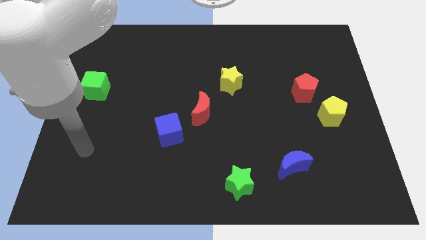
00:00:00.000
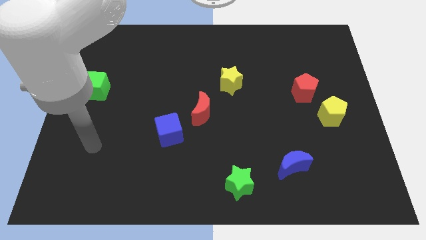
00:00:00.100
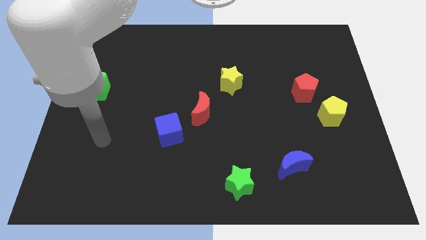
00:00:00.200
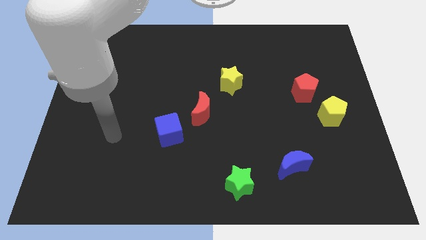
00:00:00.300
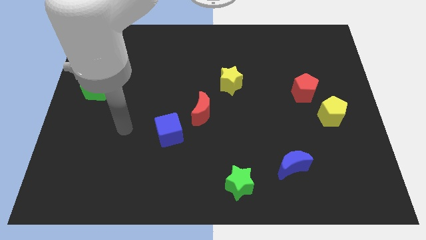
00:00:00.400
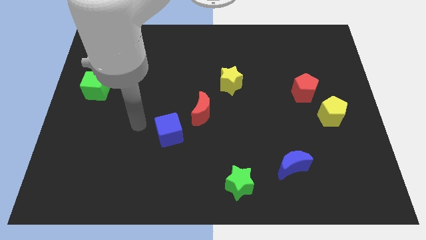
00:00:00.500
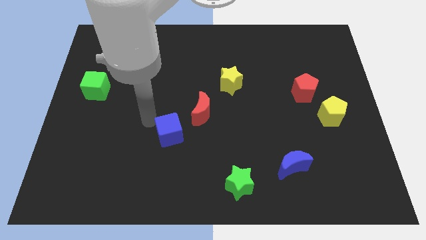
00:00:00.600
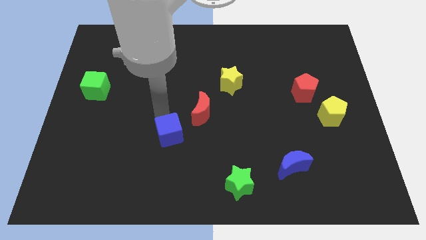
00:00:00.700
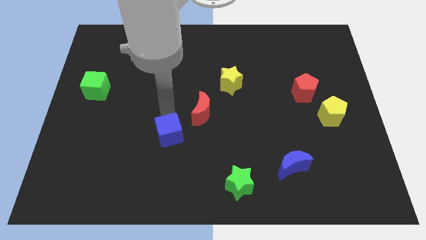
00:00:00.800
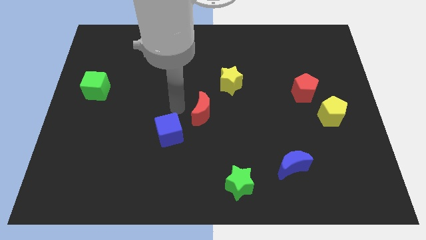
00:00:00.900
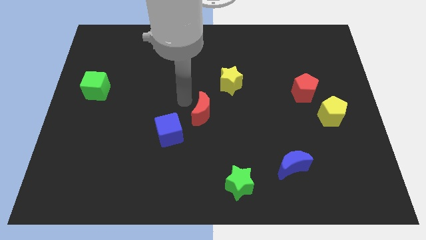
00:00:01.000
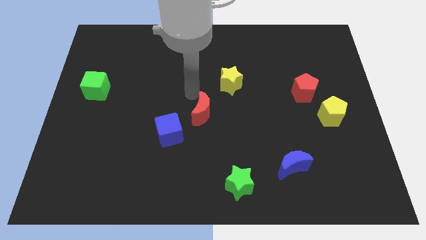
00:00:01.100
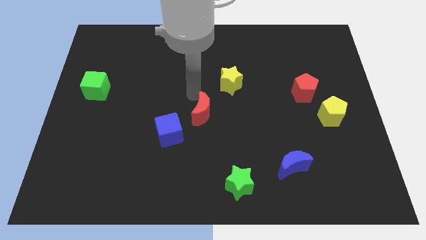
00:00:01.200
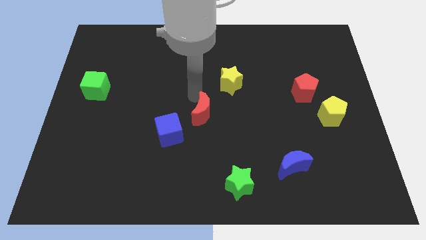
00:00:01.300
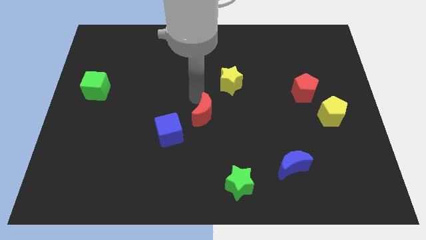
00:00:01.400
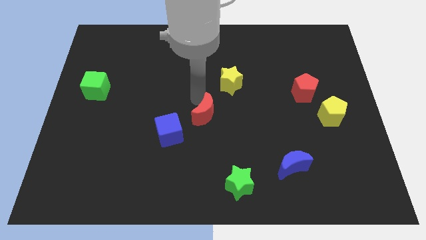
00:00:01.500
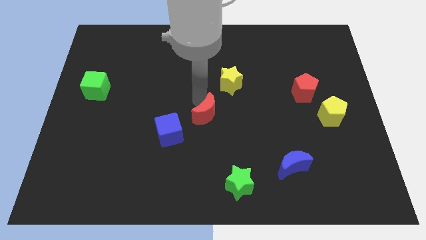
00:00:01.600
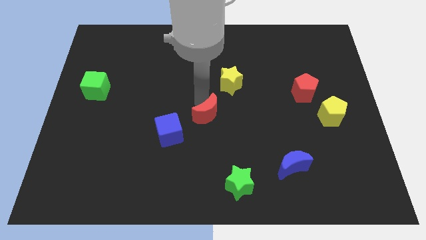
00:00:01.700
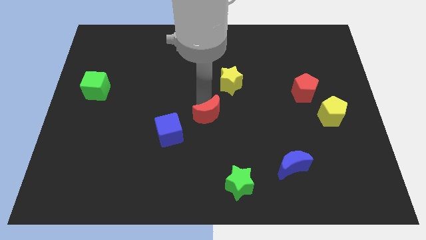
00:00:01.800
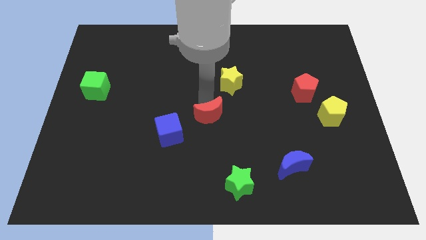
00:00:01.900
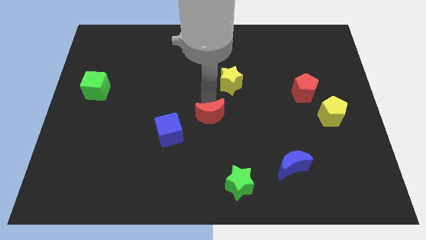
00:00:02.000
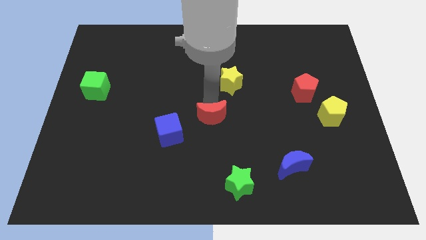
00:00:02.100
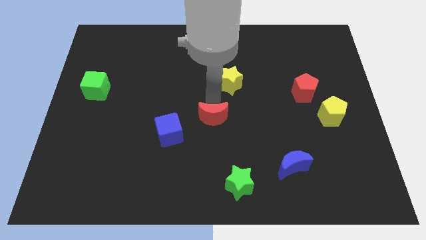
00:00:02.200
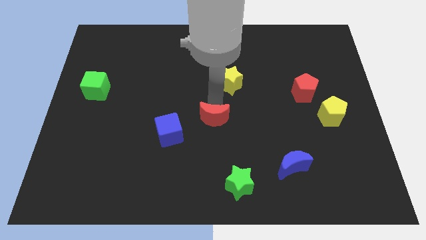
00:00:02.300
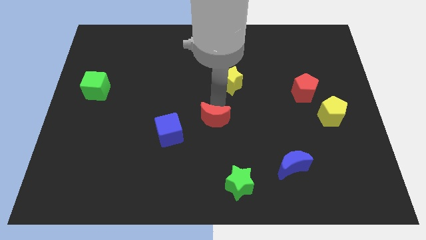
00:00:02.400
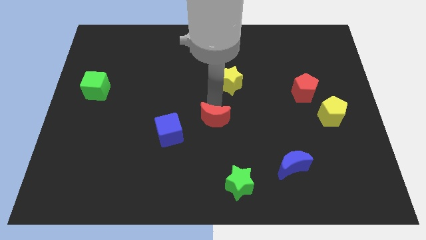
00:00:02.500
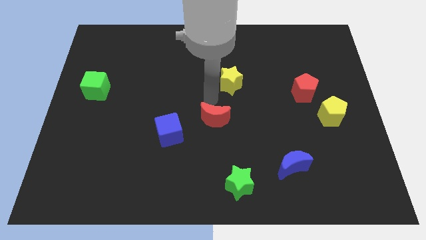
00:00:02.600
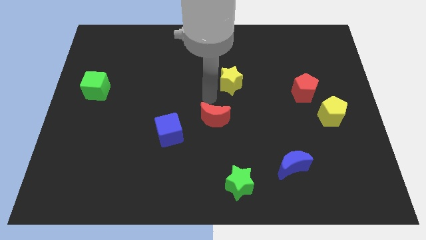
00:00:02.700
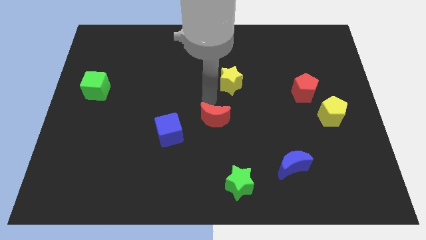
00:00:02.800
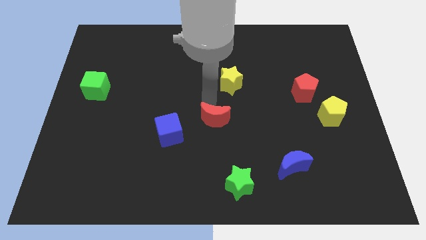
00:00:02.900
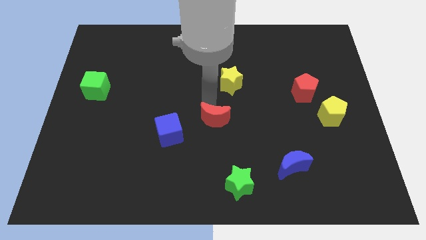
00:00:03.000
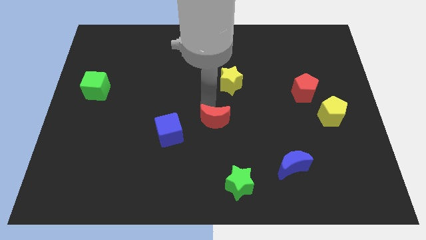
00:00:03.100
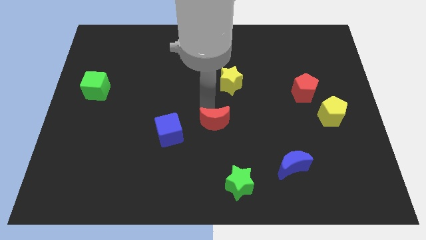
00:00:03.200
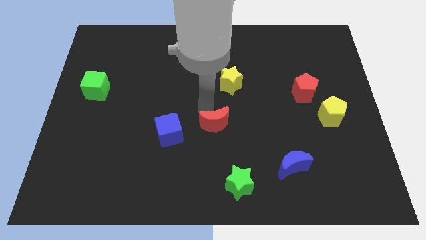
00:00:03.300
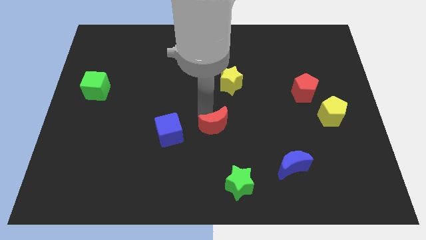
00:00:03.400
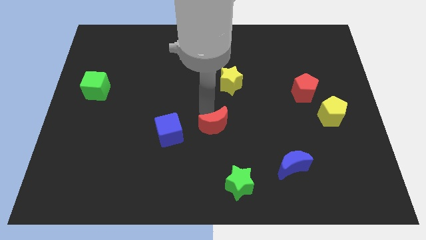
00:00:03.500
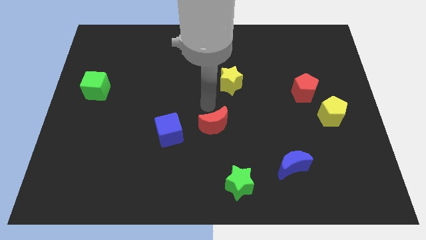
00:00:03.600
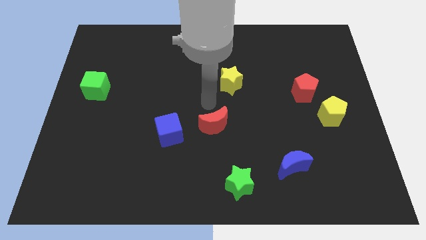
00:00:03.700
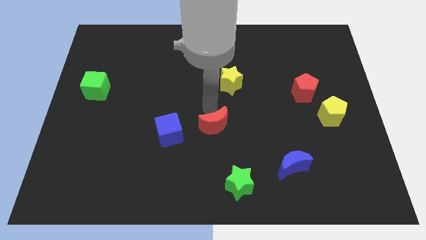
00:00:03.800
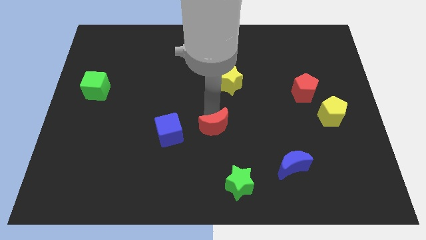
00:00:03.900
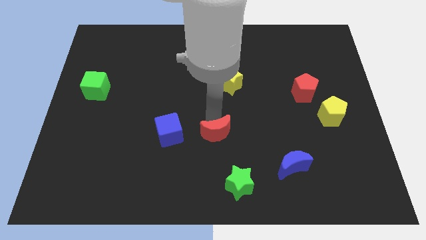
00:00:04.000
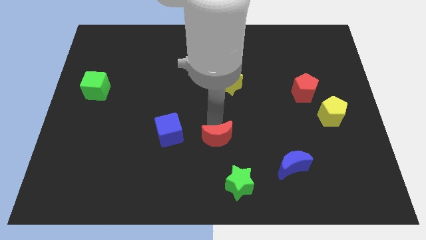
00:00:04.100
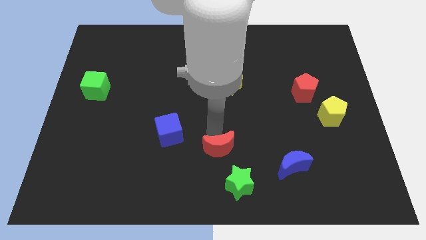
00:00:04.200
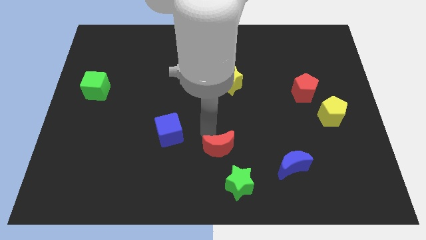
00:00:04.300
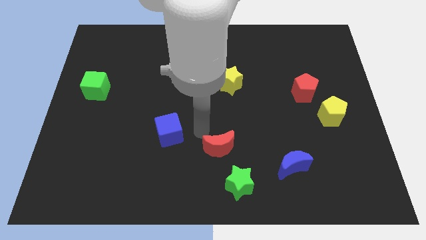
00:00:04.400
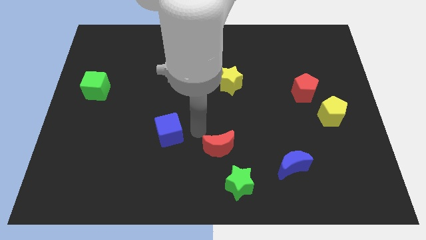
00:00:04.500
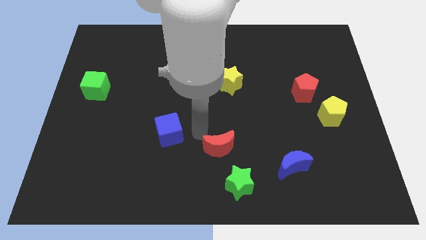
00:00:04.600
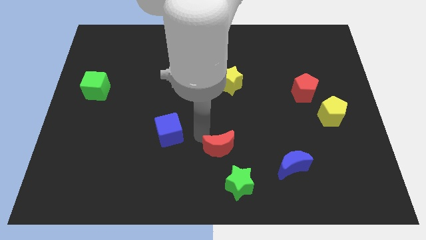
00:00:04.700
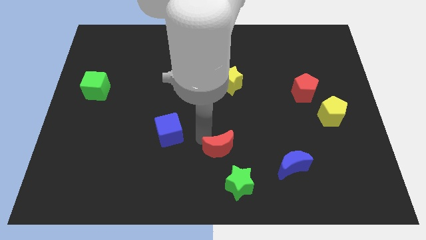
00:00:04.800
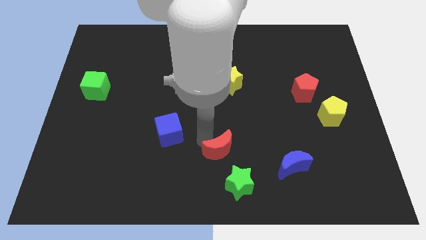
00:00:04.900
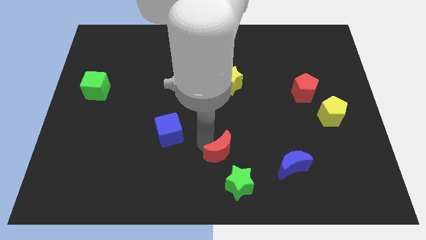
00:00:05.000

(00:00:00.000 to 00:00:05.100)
slide the red moon to the left of the blue moon

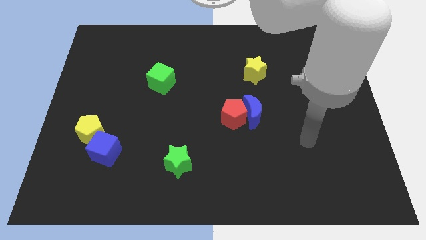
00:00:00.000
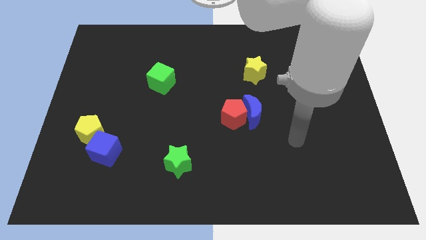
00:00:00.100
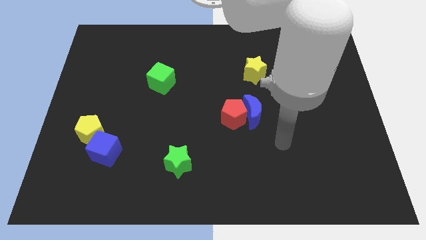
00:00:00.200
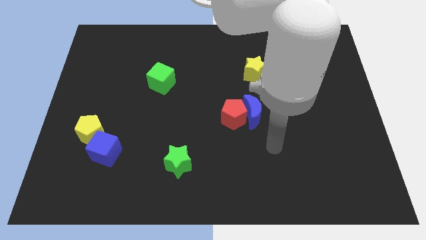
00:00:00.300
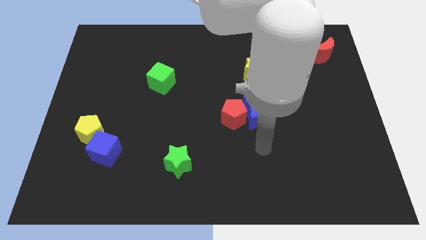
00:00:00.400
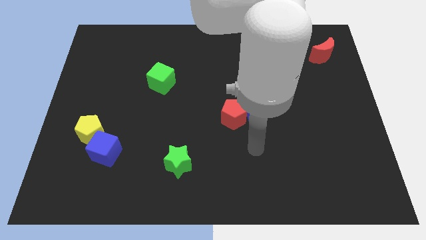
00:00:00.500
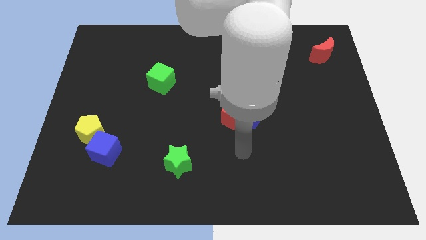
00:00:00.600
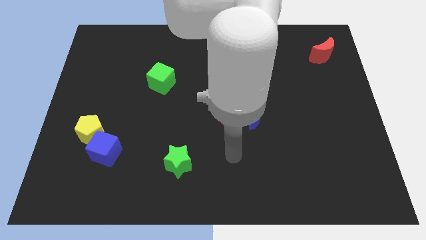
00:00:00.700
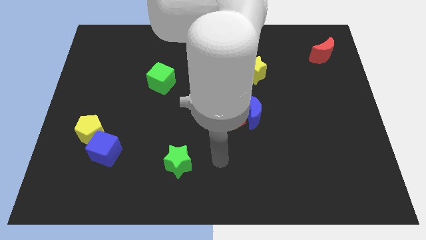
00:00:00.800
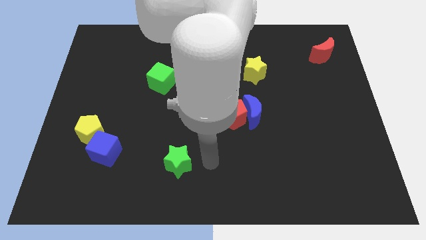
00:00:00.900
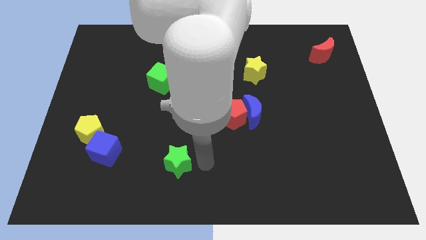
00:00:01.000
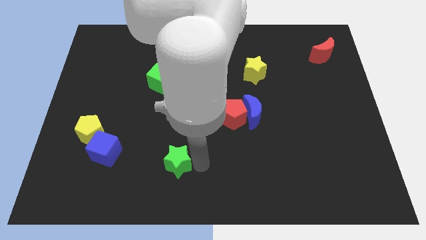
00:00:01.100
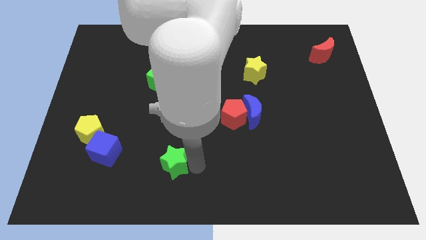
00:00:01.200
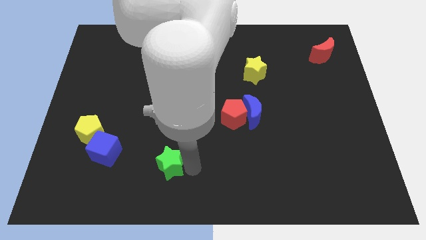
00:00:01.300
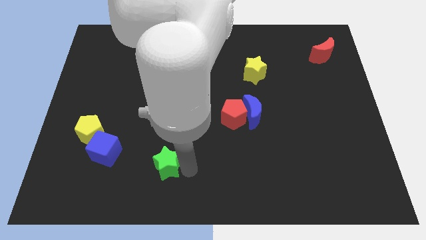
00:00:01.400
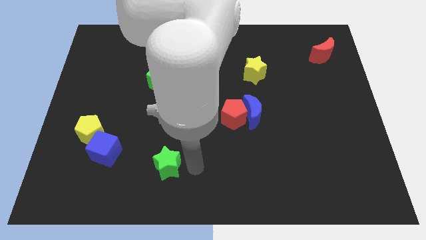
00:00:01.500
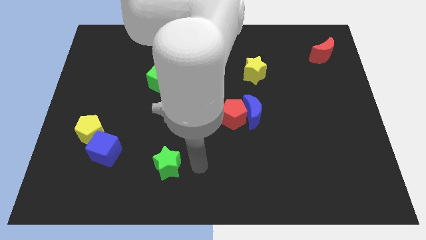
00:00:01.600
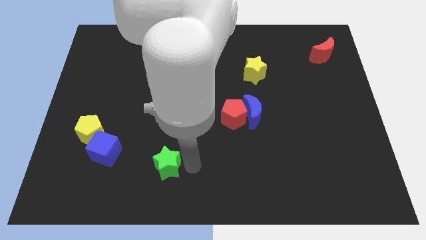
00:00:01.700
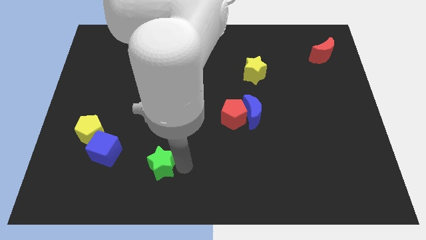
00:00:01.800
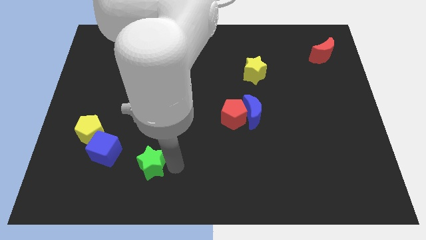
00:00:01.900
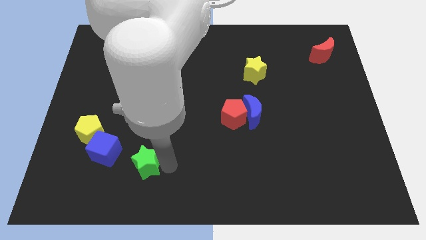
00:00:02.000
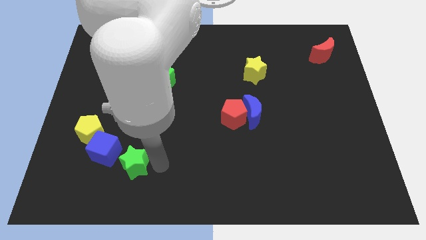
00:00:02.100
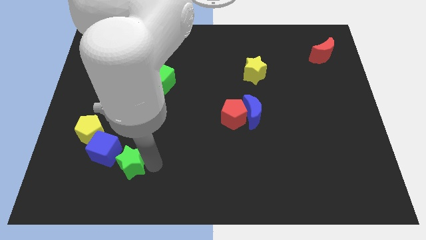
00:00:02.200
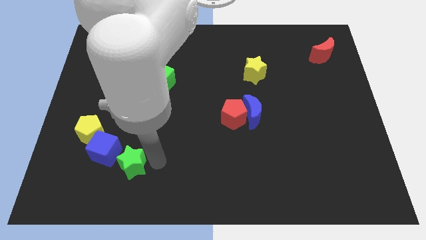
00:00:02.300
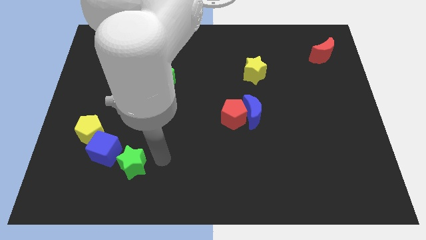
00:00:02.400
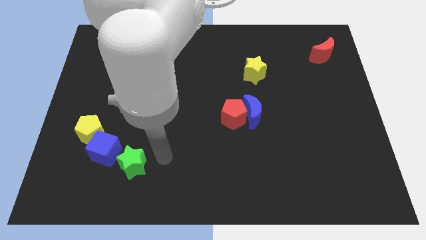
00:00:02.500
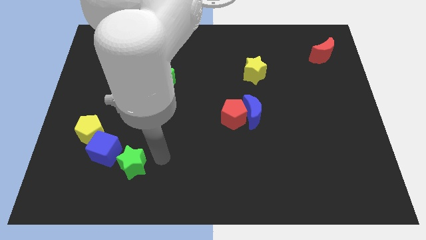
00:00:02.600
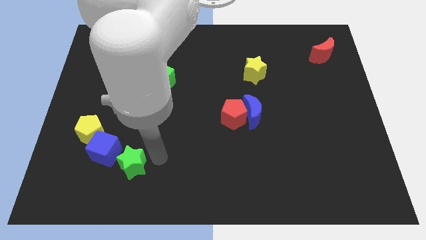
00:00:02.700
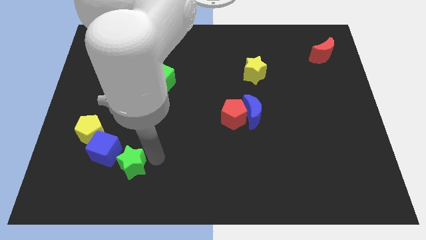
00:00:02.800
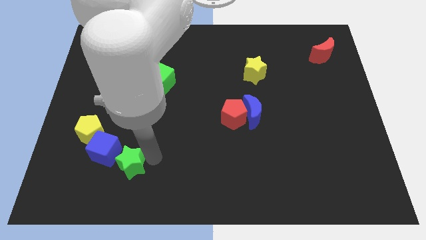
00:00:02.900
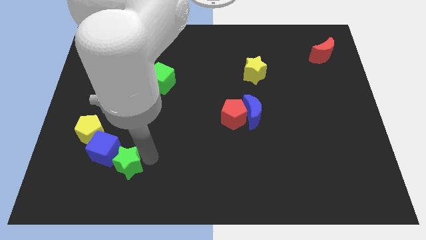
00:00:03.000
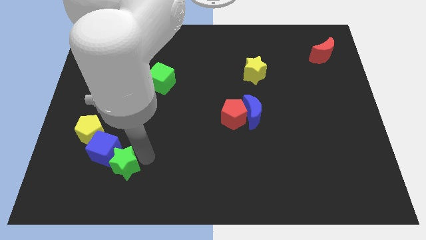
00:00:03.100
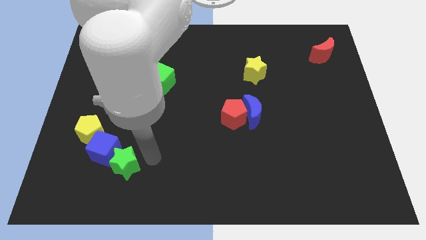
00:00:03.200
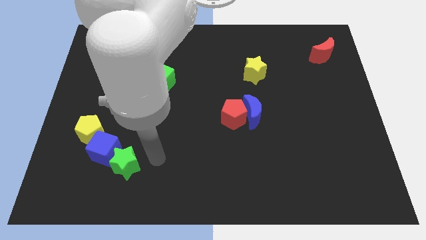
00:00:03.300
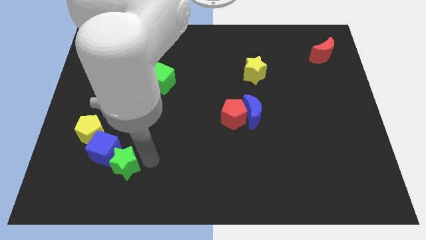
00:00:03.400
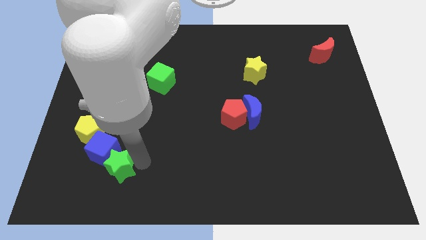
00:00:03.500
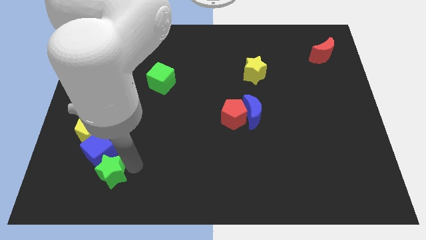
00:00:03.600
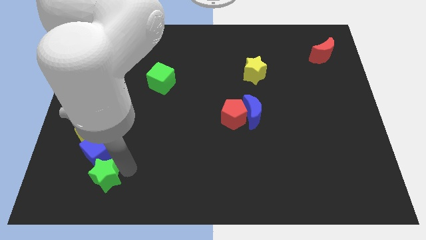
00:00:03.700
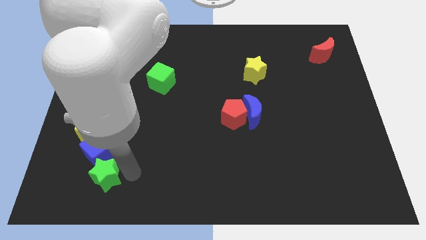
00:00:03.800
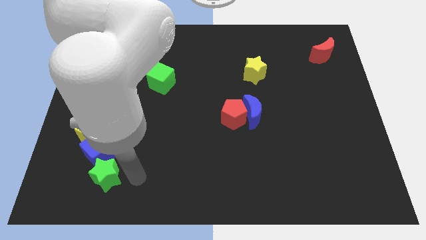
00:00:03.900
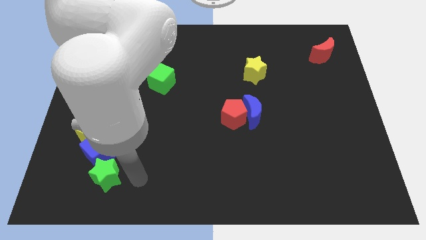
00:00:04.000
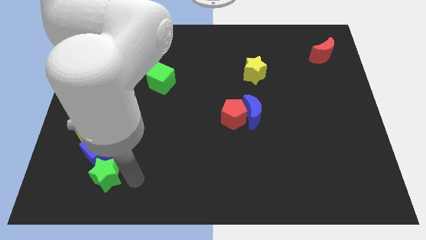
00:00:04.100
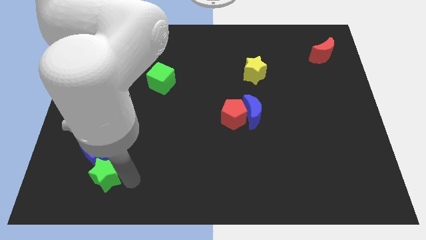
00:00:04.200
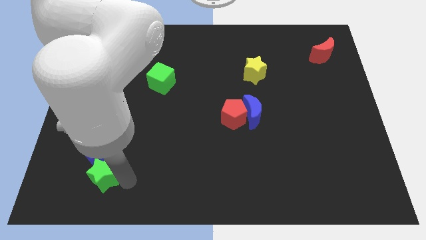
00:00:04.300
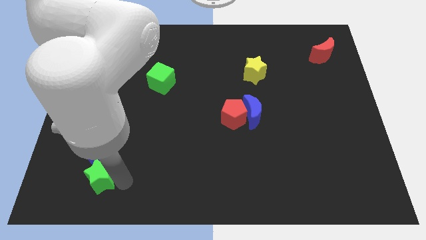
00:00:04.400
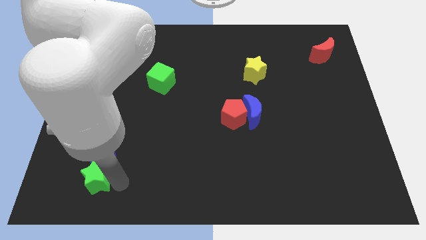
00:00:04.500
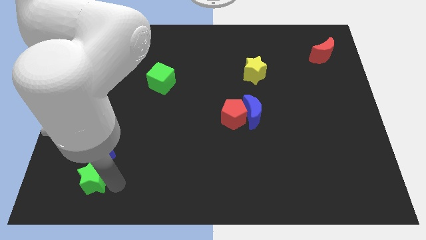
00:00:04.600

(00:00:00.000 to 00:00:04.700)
move the green star diagonally down and to the left of the blue cube
